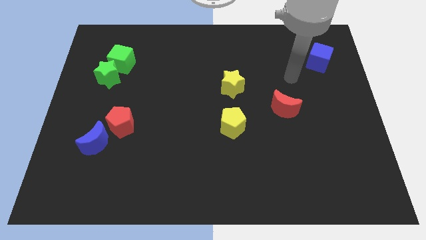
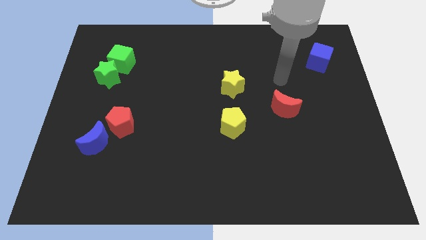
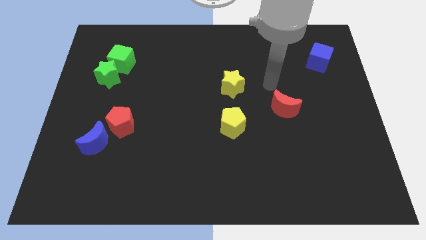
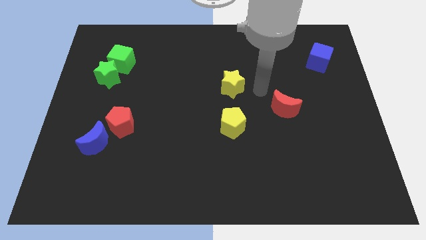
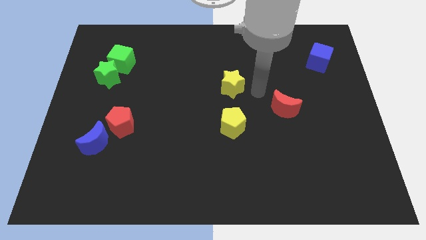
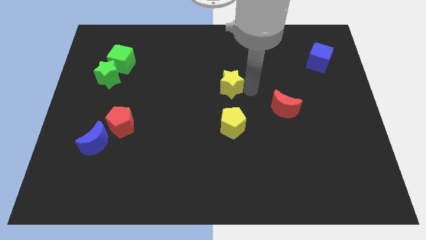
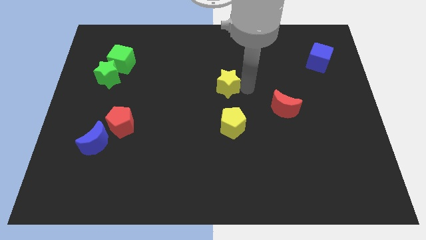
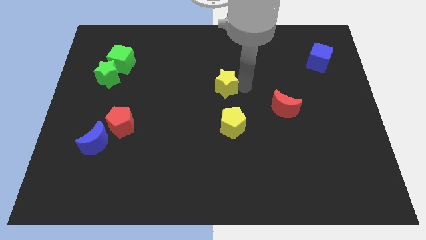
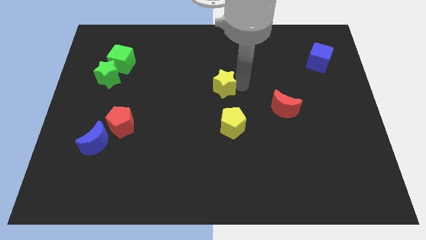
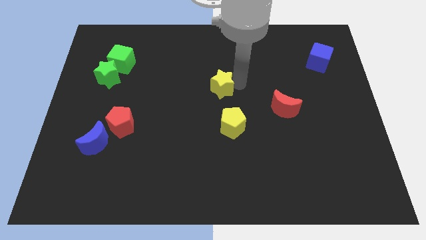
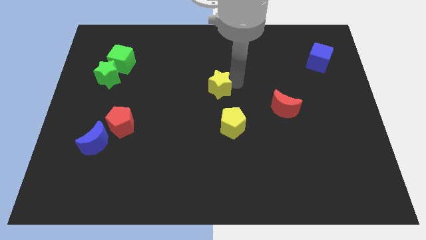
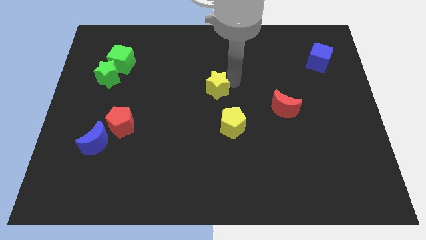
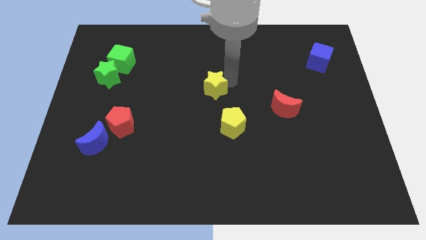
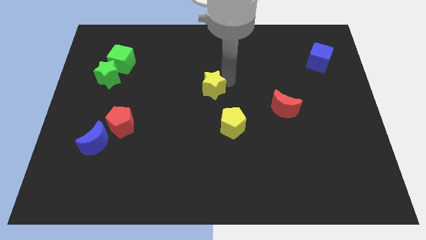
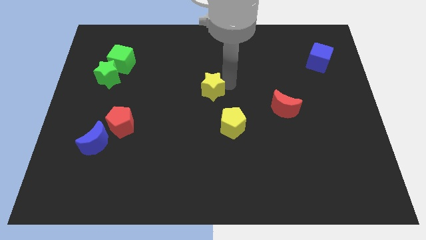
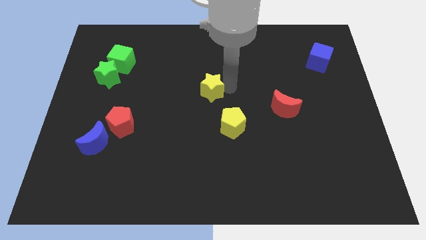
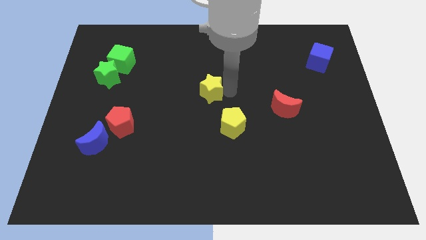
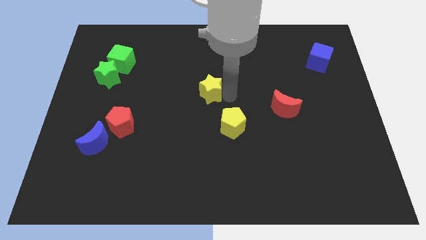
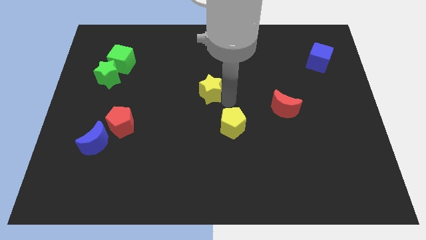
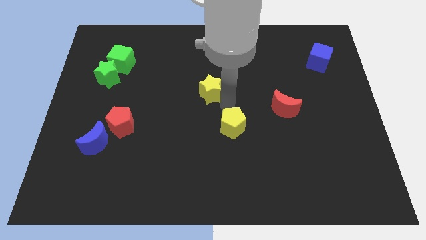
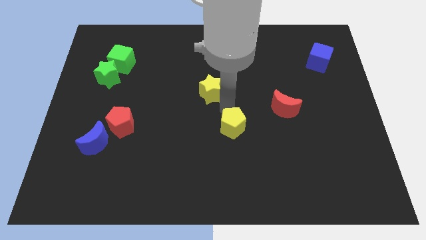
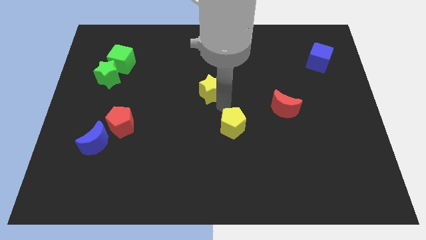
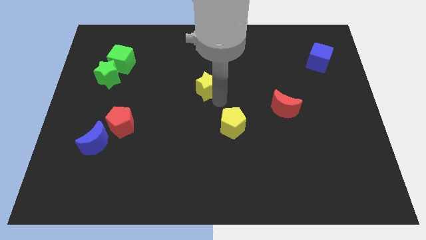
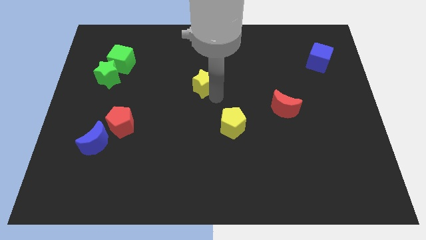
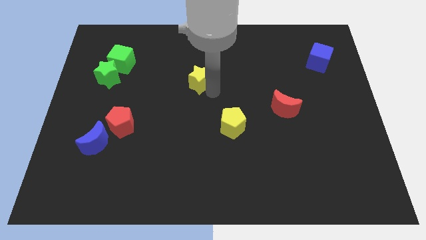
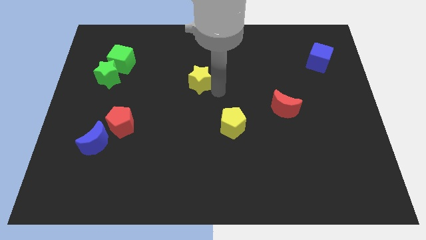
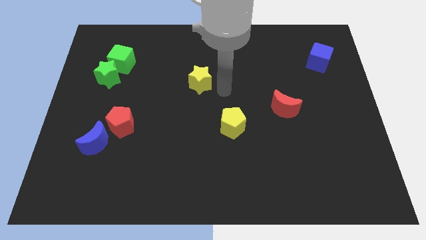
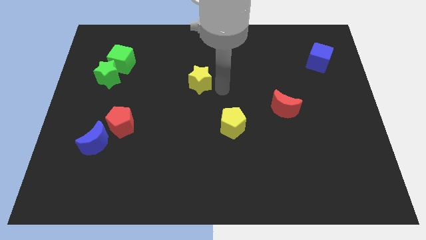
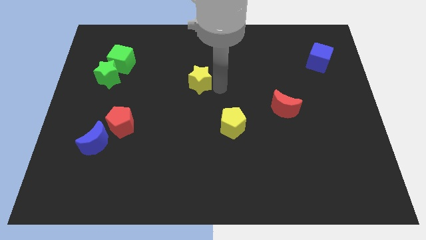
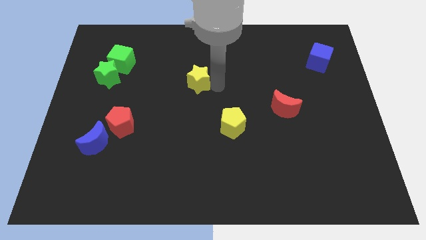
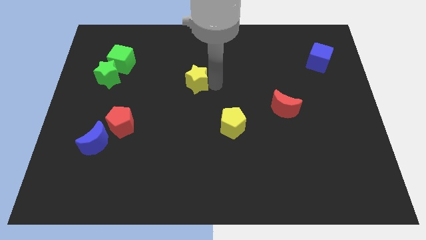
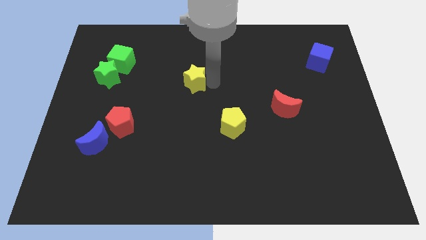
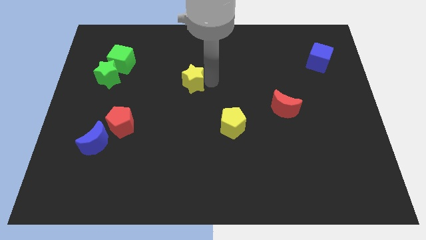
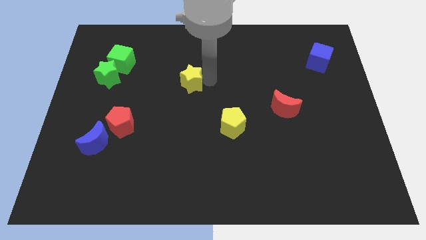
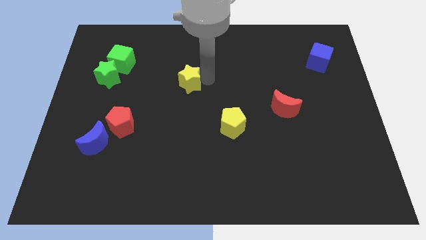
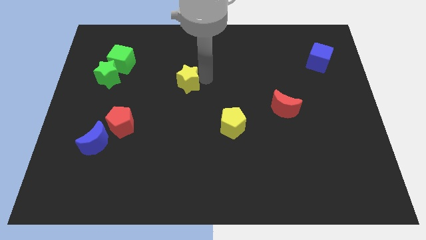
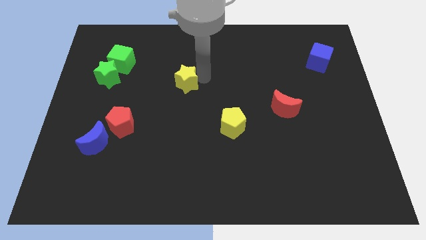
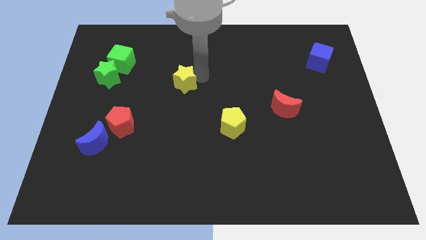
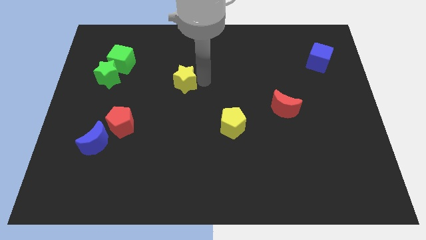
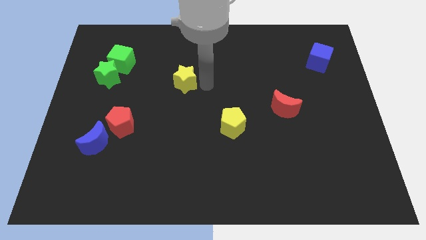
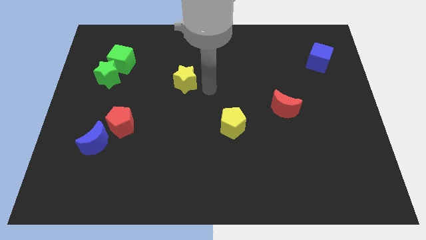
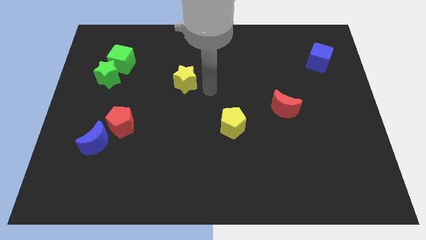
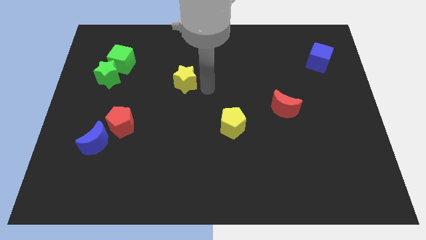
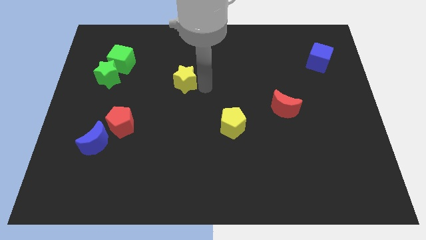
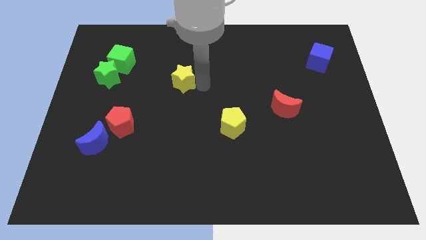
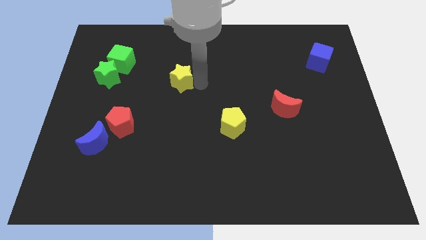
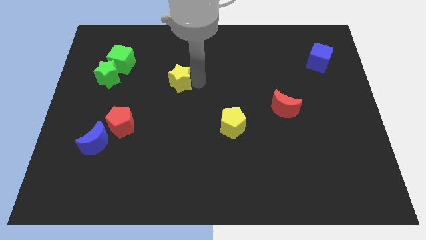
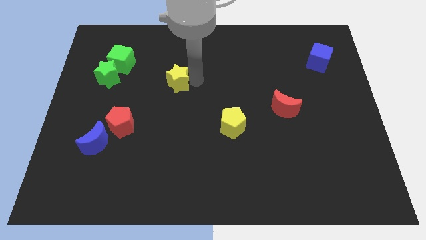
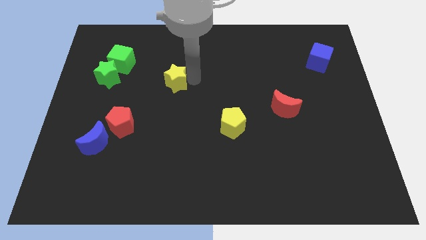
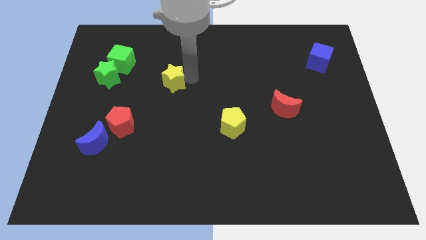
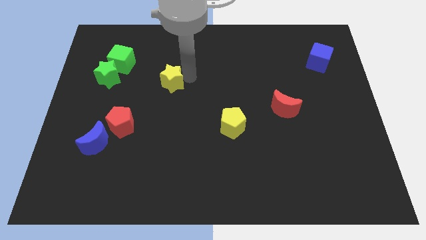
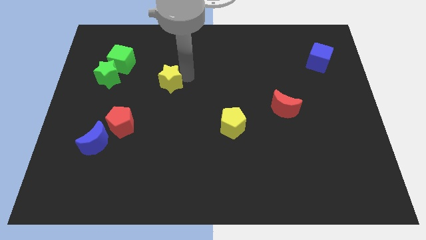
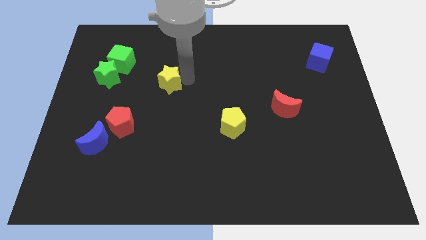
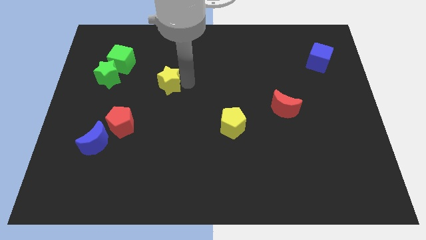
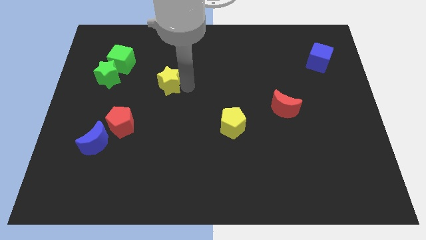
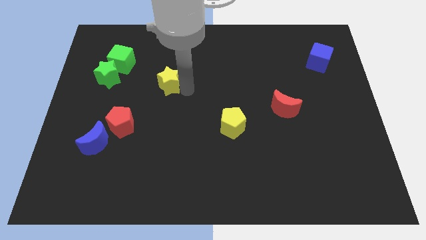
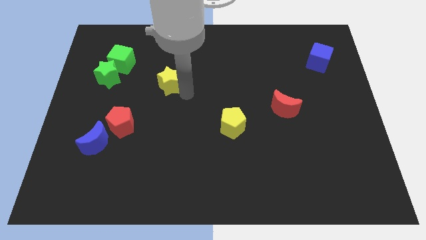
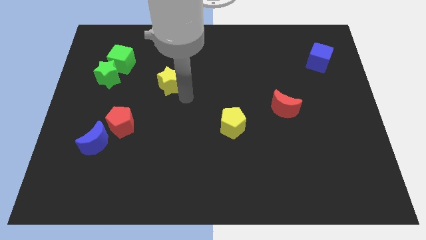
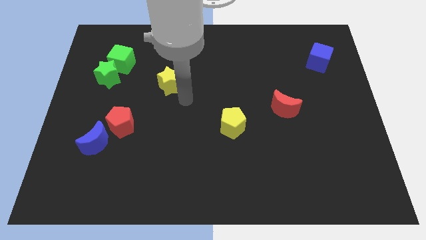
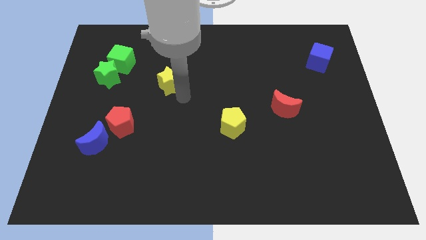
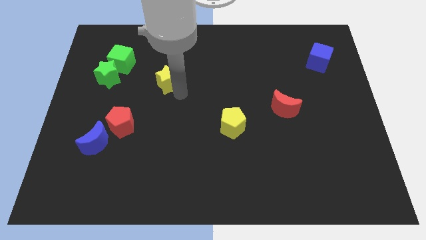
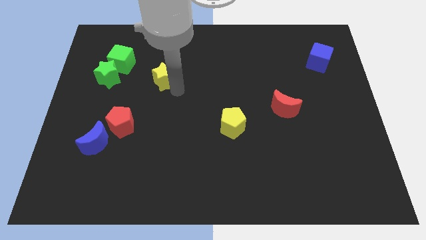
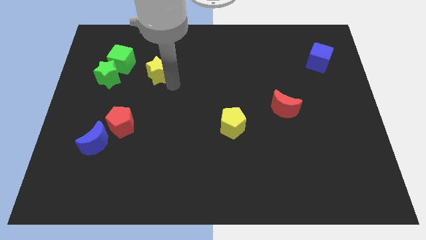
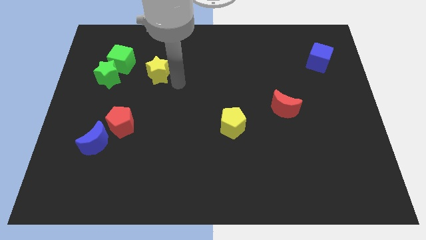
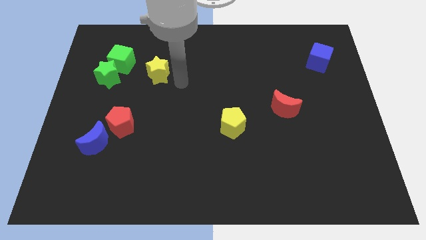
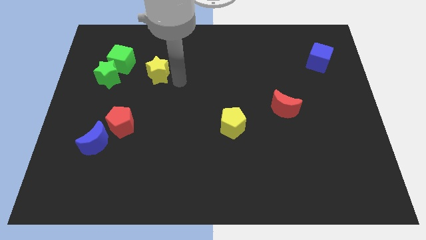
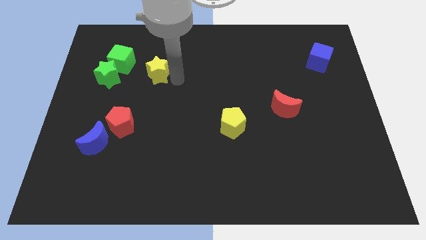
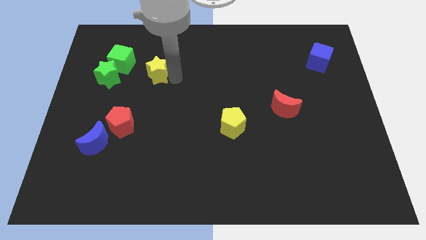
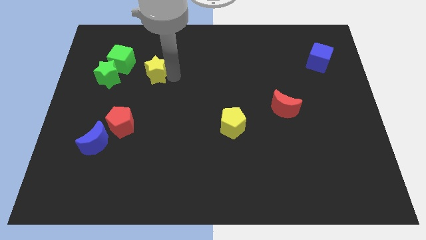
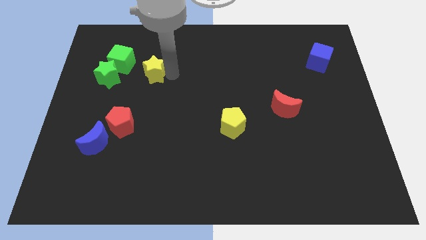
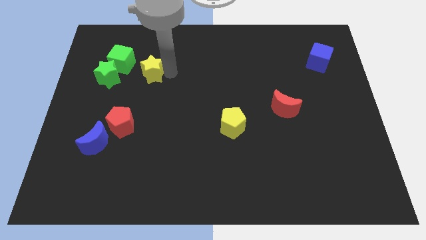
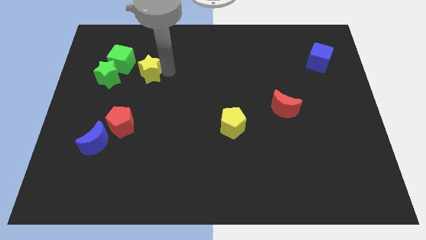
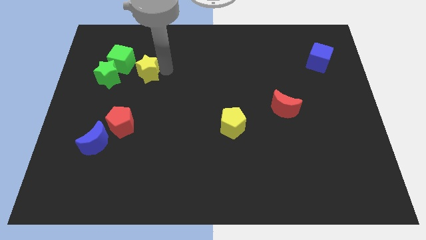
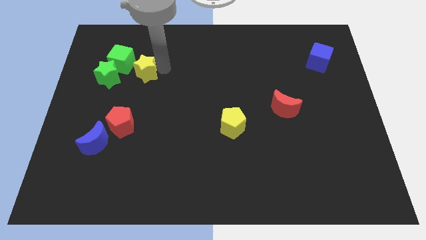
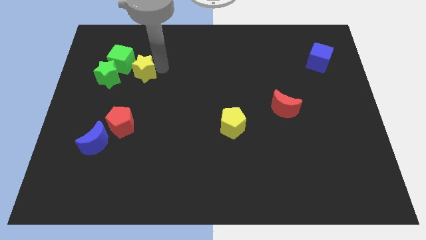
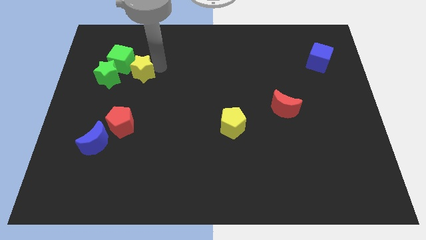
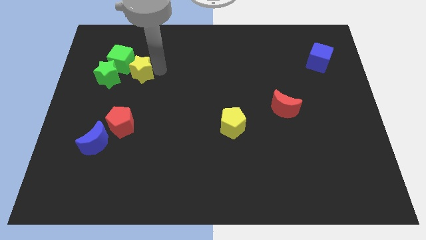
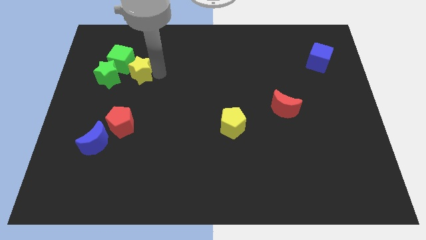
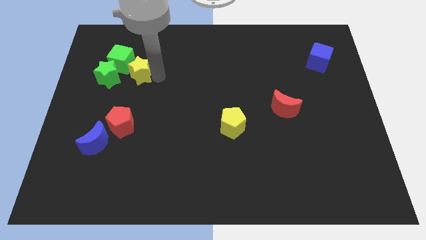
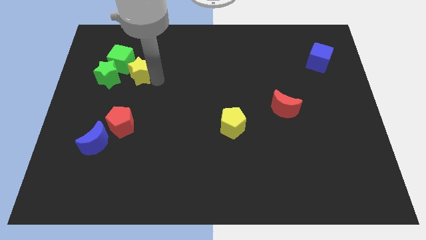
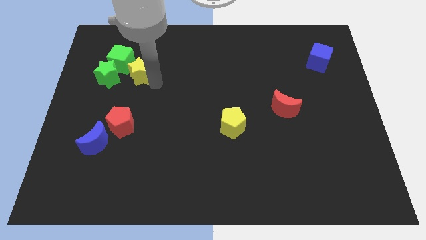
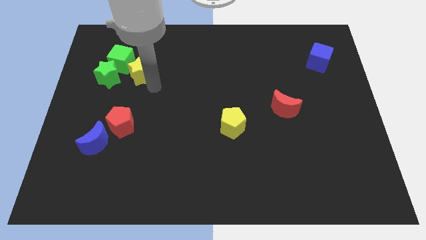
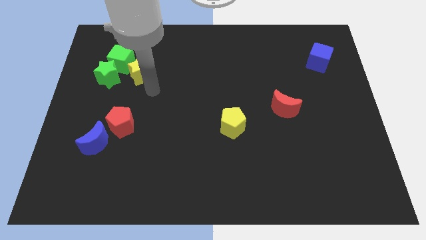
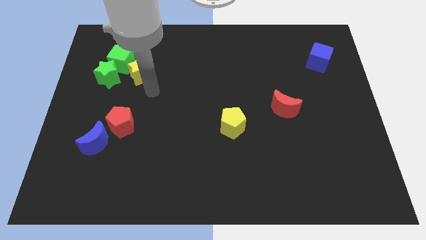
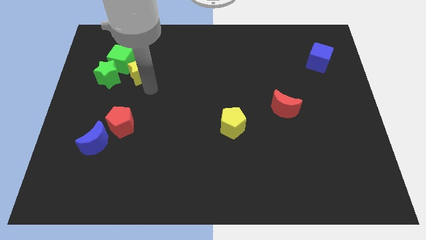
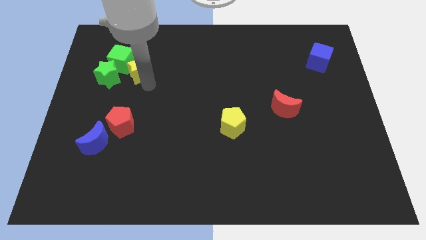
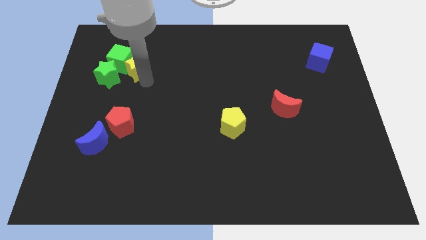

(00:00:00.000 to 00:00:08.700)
push the yellow star to the green cube
